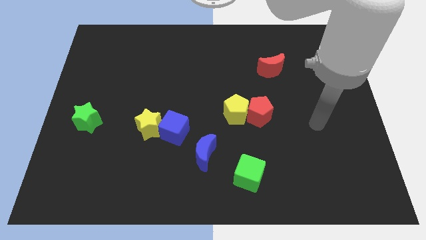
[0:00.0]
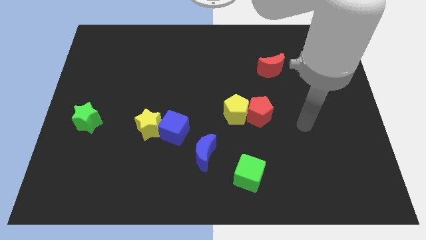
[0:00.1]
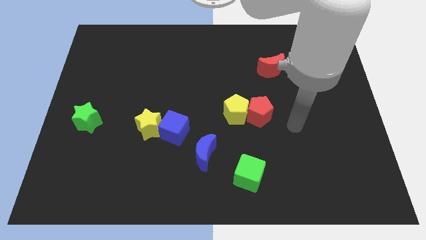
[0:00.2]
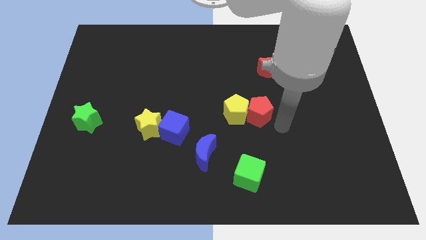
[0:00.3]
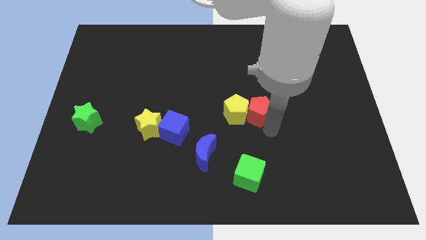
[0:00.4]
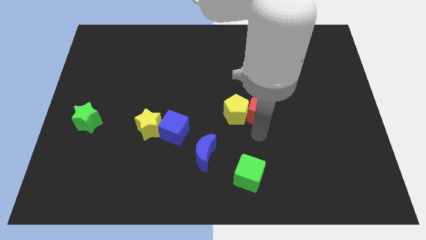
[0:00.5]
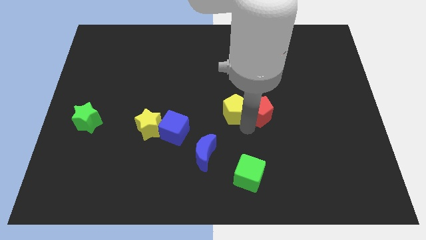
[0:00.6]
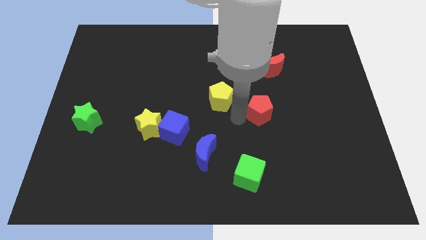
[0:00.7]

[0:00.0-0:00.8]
move the red pentagon away from the yellow pentagon

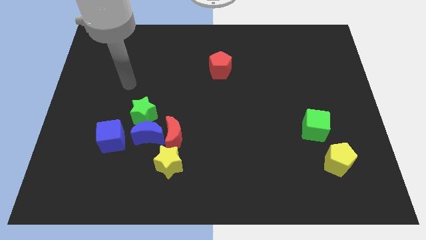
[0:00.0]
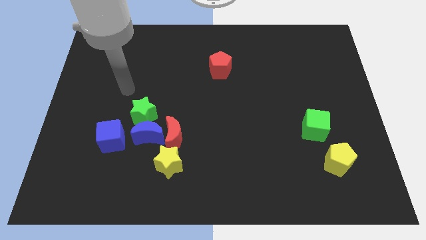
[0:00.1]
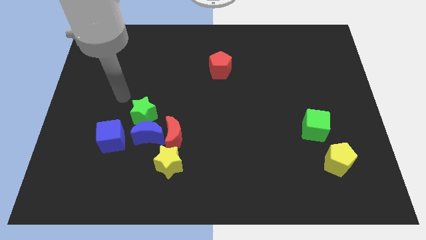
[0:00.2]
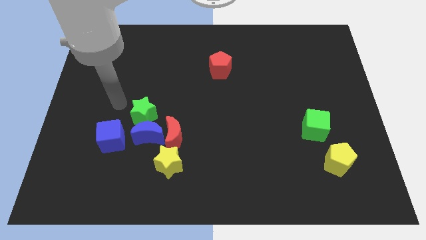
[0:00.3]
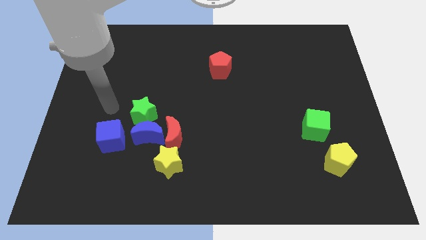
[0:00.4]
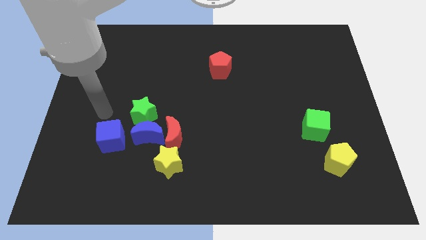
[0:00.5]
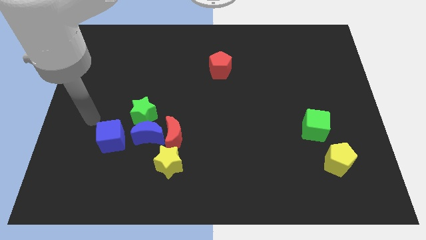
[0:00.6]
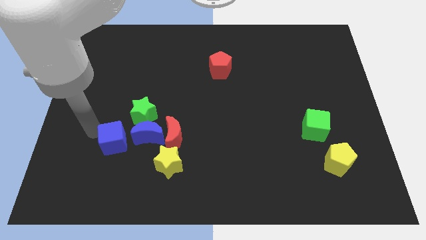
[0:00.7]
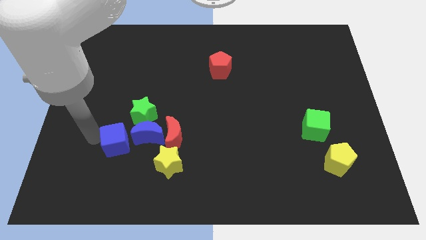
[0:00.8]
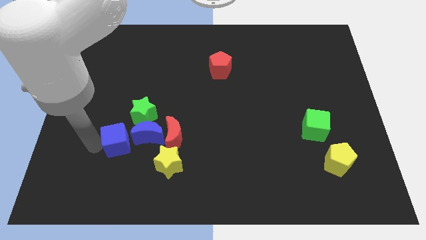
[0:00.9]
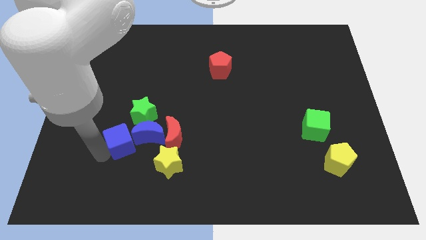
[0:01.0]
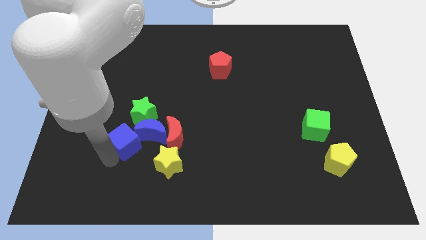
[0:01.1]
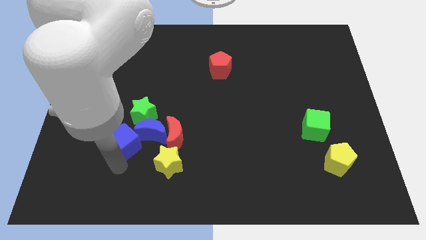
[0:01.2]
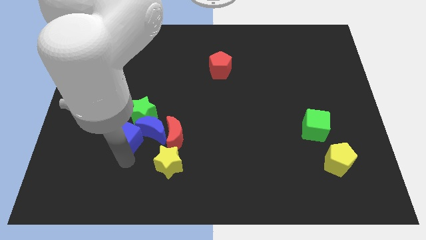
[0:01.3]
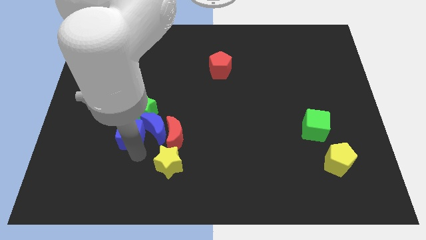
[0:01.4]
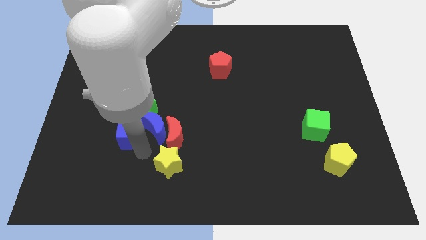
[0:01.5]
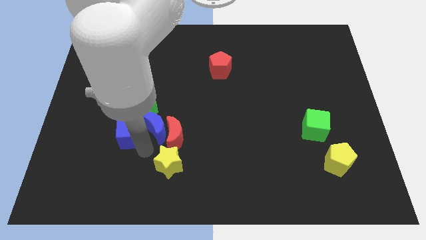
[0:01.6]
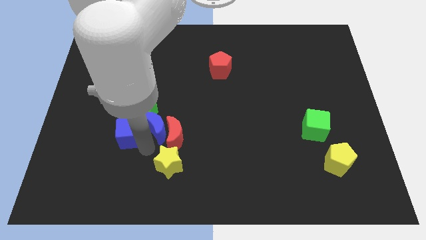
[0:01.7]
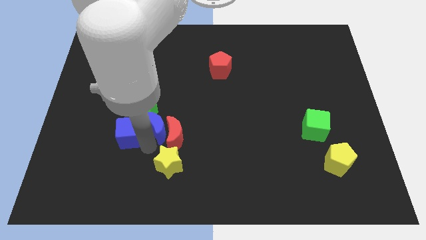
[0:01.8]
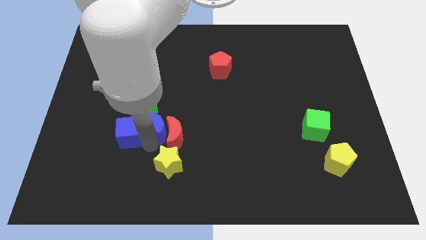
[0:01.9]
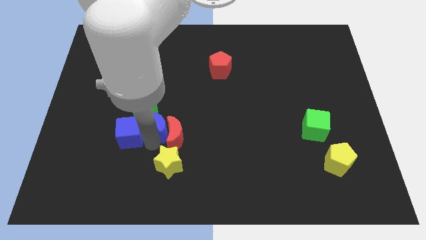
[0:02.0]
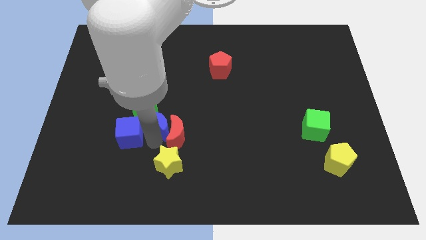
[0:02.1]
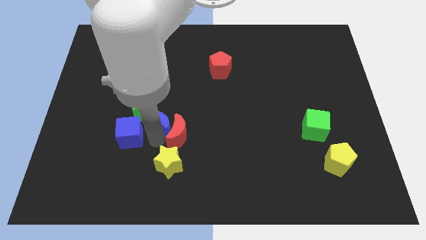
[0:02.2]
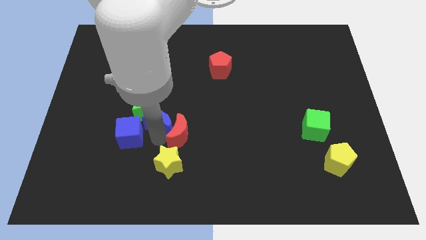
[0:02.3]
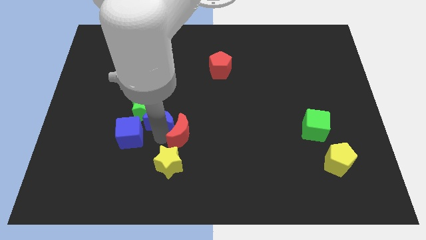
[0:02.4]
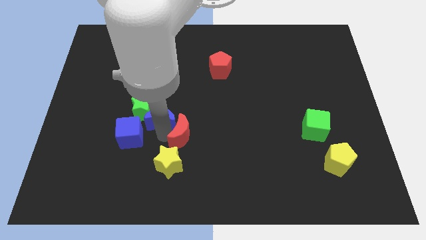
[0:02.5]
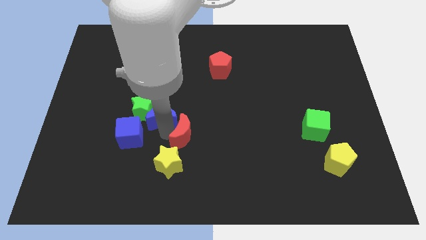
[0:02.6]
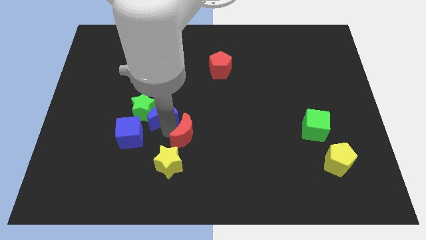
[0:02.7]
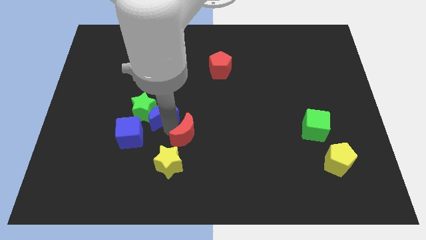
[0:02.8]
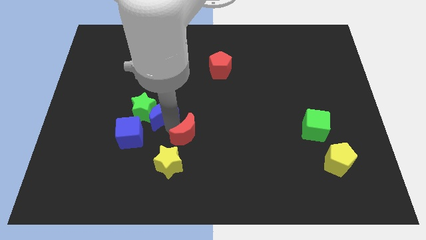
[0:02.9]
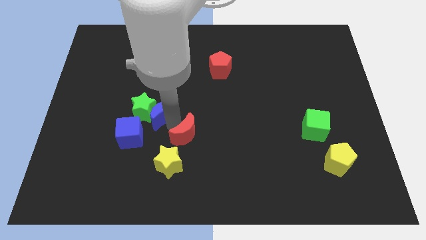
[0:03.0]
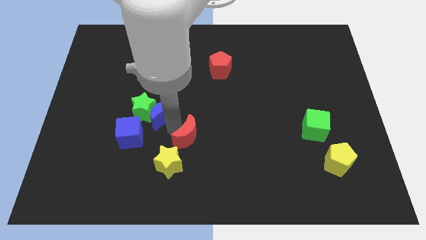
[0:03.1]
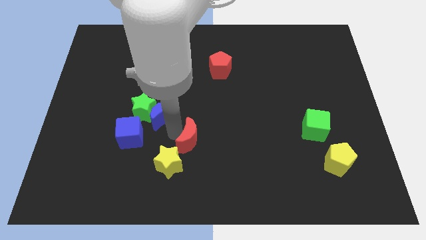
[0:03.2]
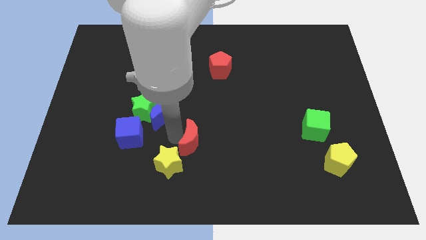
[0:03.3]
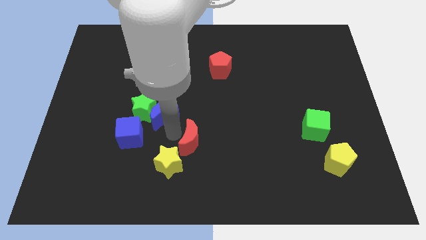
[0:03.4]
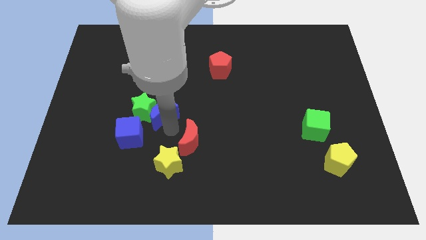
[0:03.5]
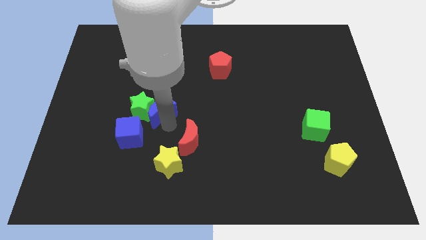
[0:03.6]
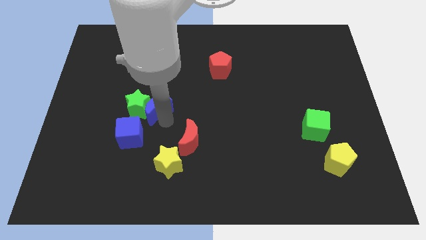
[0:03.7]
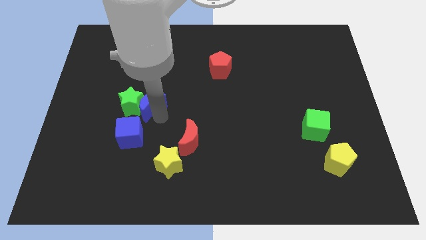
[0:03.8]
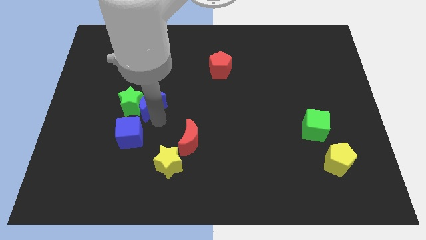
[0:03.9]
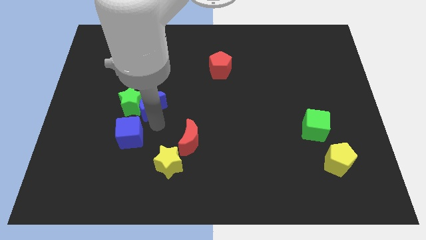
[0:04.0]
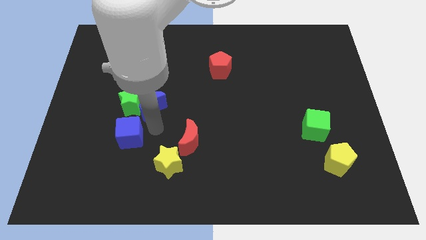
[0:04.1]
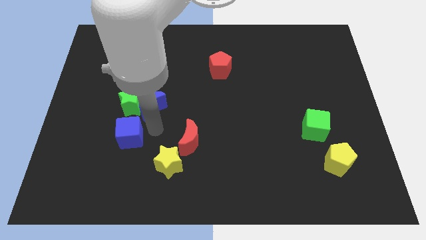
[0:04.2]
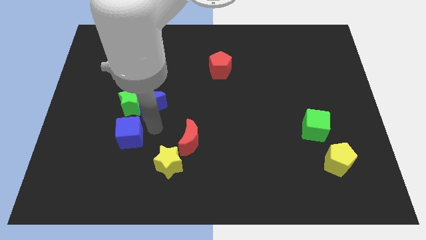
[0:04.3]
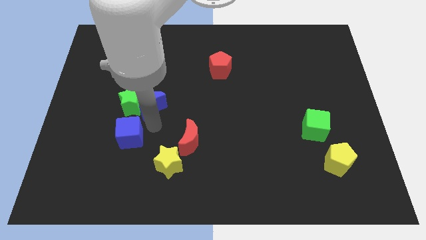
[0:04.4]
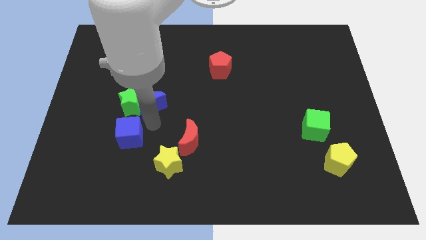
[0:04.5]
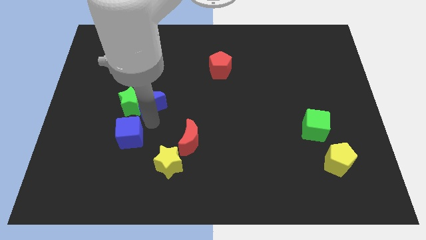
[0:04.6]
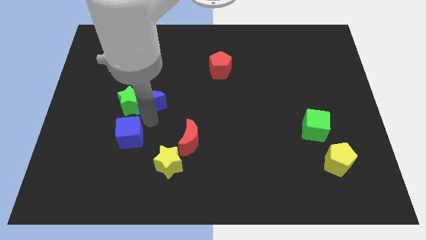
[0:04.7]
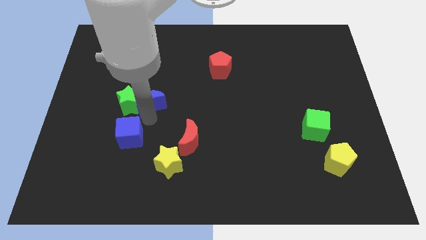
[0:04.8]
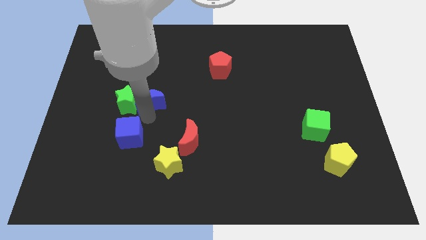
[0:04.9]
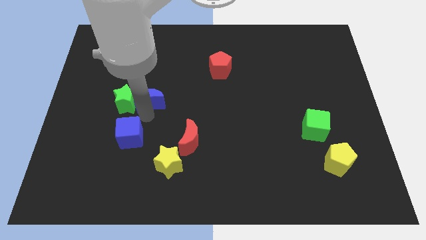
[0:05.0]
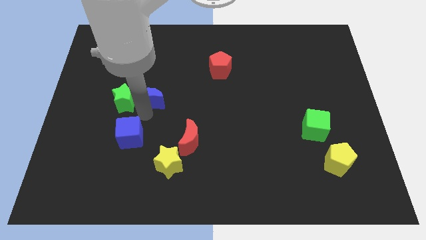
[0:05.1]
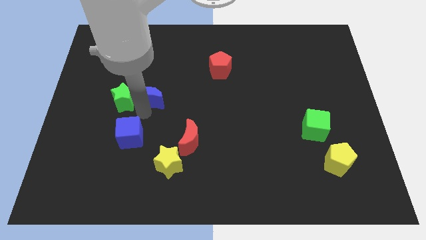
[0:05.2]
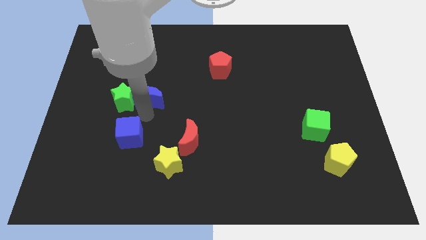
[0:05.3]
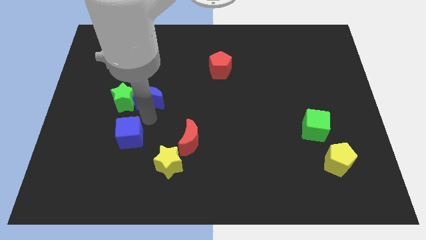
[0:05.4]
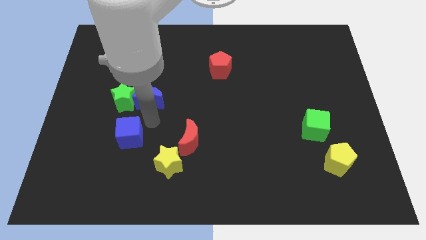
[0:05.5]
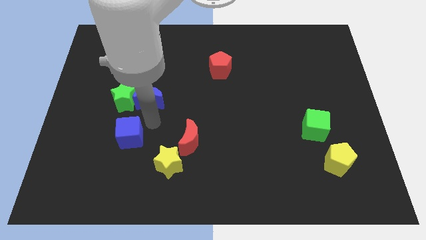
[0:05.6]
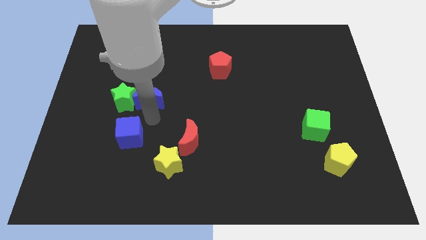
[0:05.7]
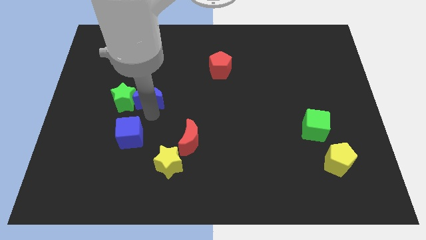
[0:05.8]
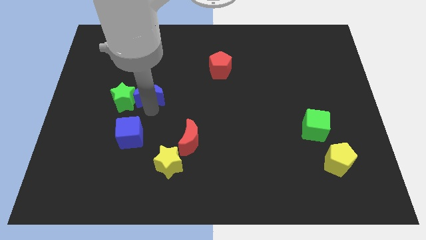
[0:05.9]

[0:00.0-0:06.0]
pull the blue moon apart from the clump

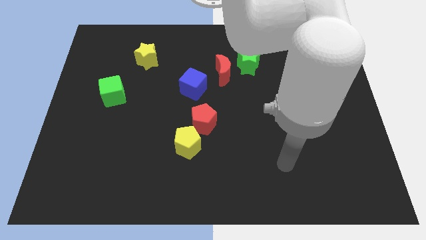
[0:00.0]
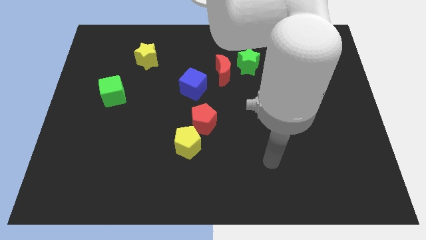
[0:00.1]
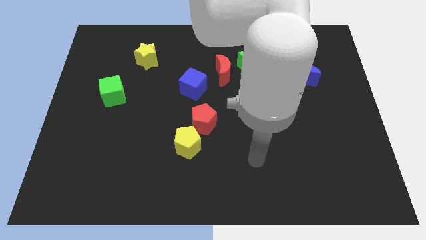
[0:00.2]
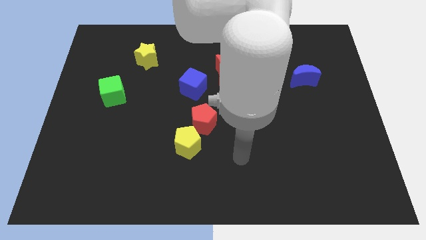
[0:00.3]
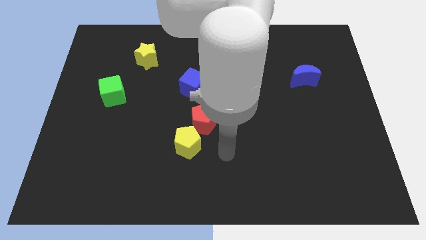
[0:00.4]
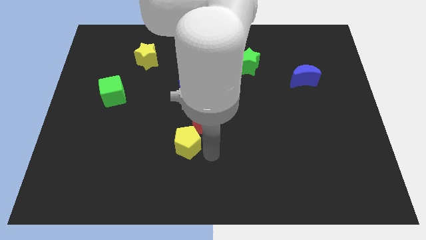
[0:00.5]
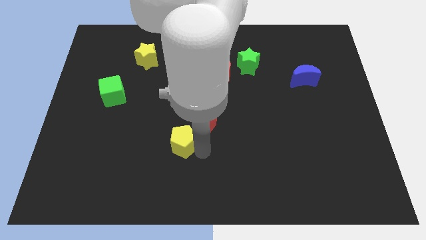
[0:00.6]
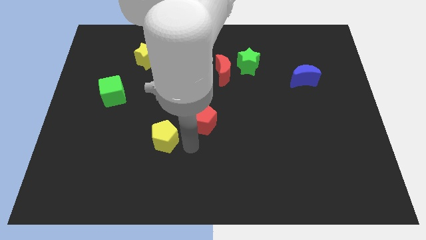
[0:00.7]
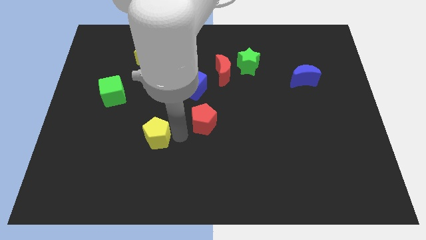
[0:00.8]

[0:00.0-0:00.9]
separate the red pentagon from the yellow pentagon

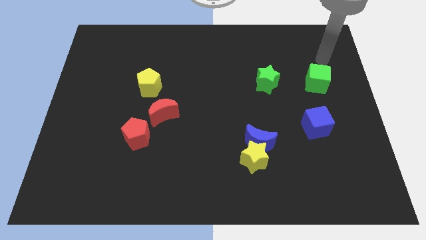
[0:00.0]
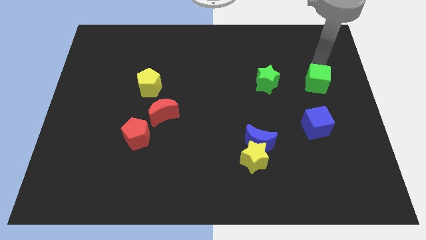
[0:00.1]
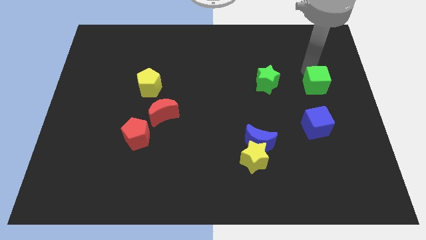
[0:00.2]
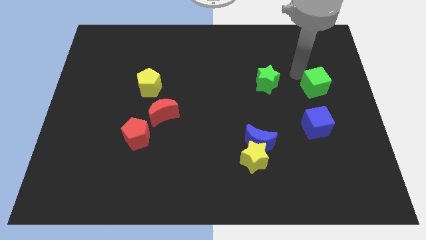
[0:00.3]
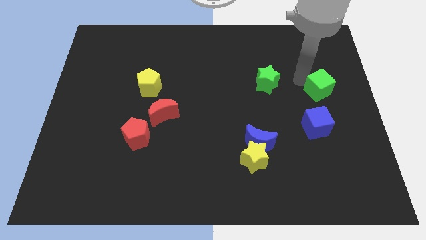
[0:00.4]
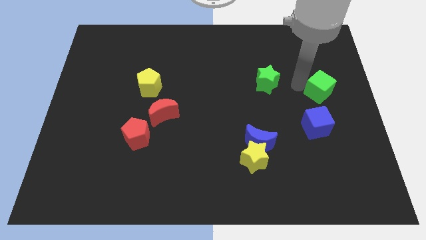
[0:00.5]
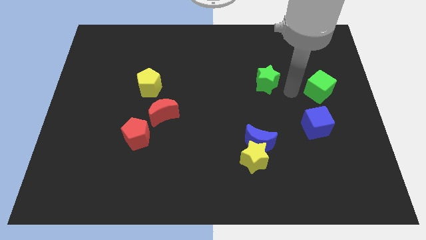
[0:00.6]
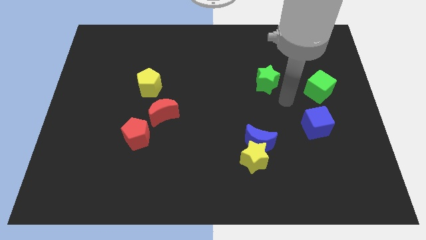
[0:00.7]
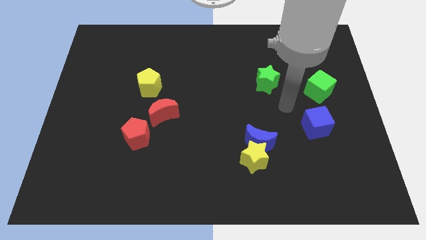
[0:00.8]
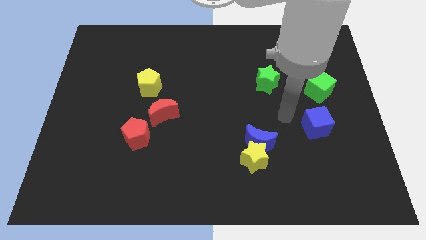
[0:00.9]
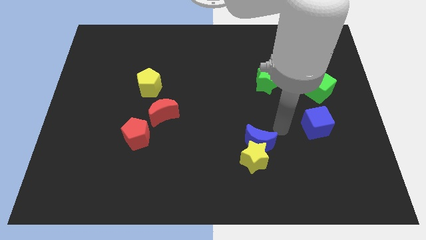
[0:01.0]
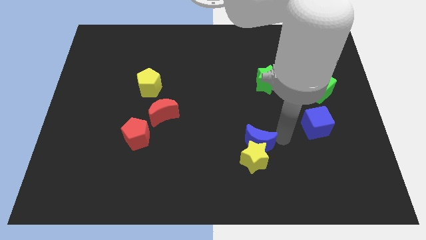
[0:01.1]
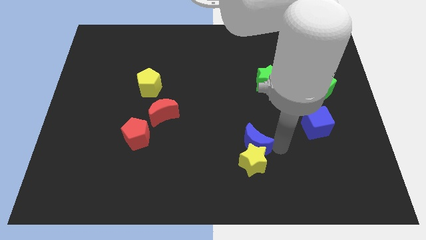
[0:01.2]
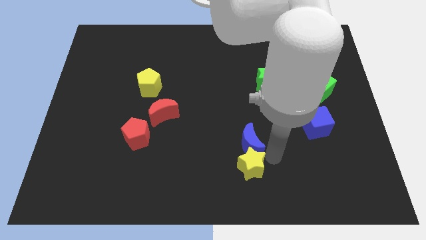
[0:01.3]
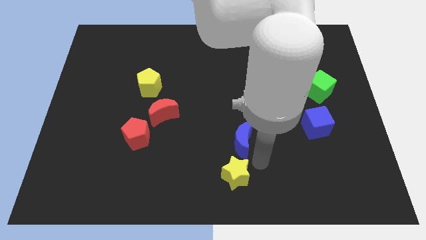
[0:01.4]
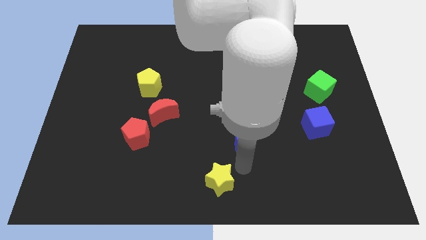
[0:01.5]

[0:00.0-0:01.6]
move the blue moon away from the yellow star

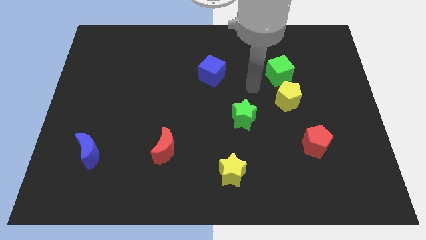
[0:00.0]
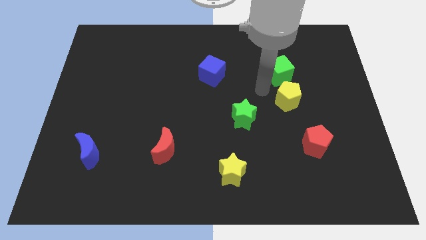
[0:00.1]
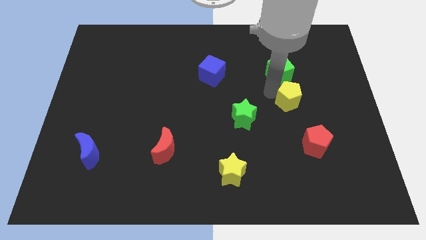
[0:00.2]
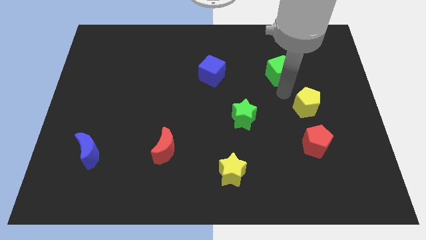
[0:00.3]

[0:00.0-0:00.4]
move the green cube away from the yellow pentagon
